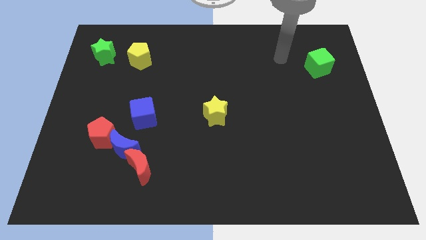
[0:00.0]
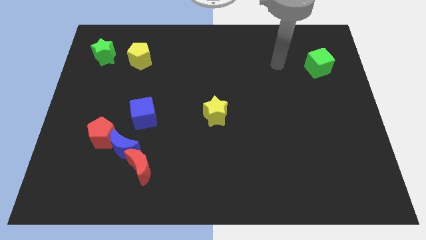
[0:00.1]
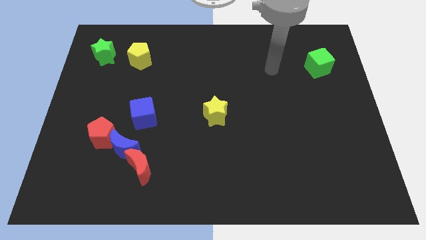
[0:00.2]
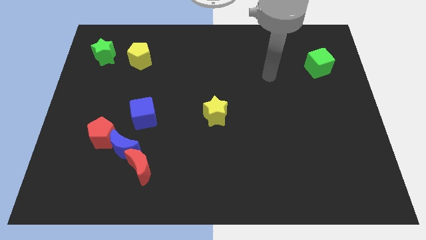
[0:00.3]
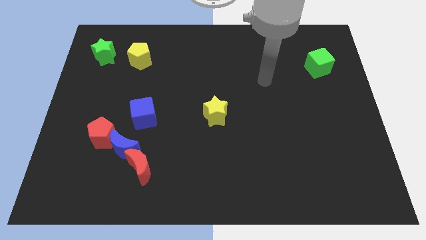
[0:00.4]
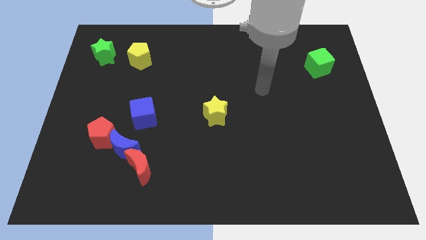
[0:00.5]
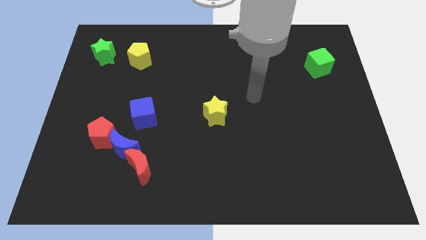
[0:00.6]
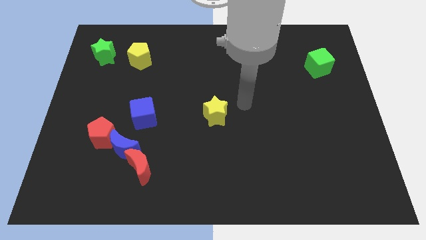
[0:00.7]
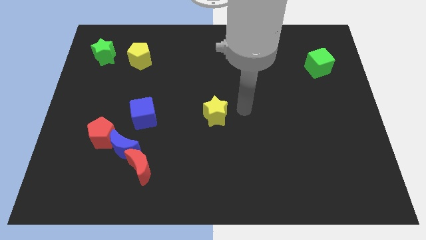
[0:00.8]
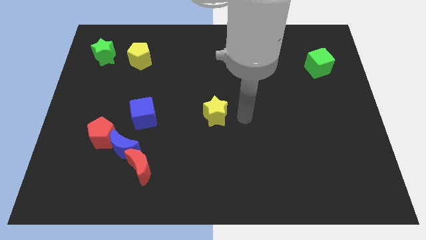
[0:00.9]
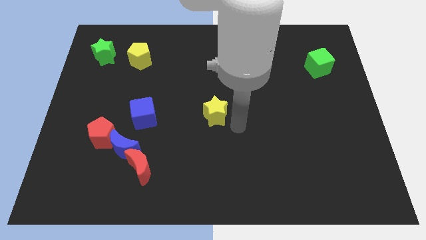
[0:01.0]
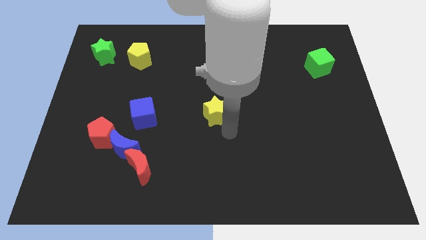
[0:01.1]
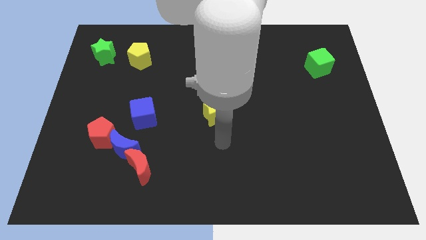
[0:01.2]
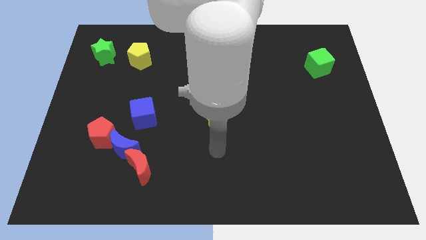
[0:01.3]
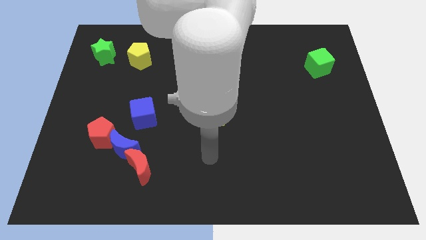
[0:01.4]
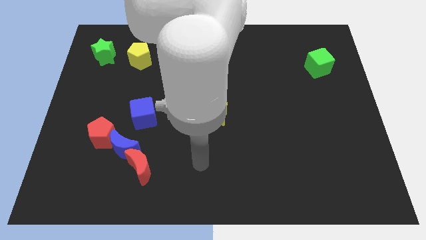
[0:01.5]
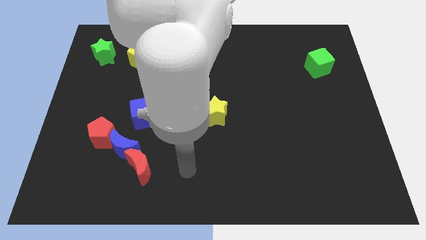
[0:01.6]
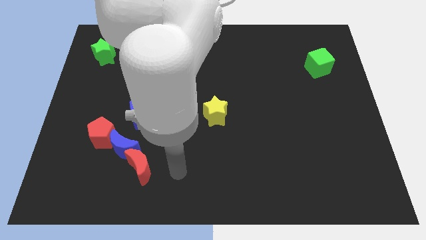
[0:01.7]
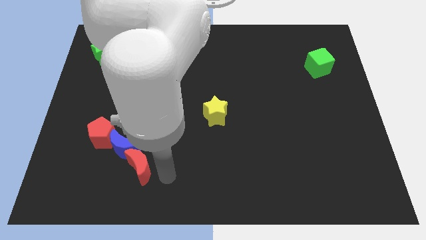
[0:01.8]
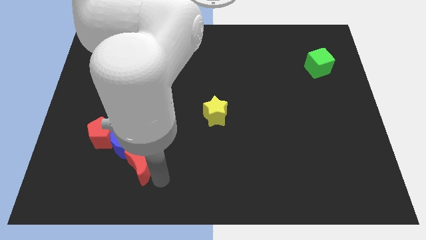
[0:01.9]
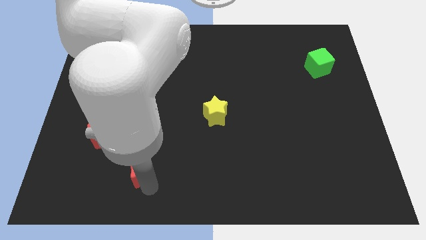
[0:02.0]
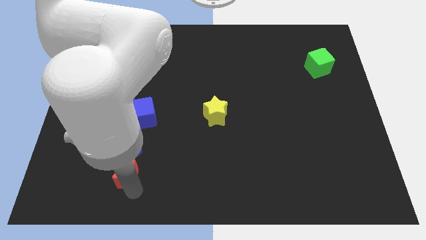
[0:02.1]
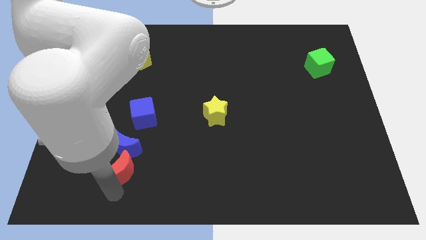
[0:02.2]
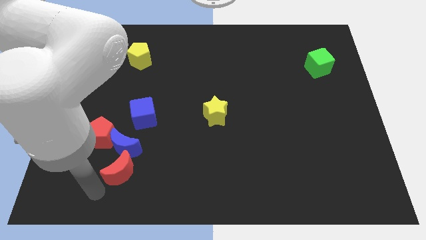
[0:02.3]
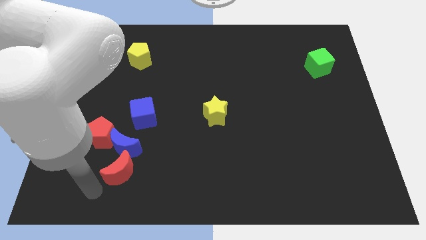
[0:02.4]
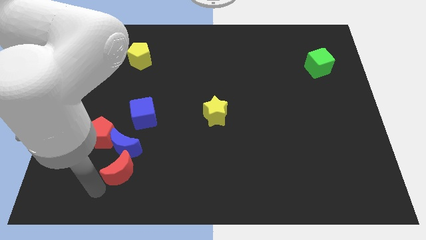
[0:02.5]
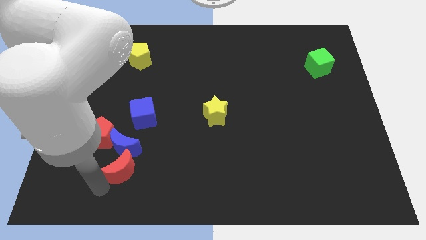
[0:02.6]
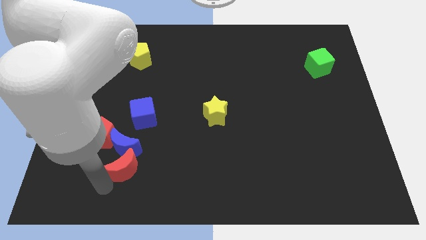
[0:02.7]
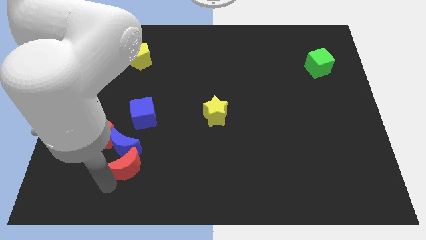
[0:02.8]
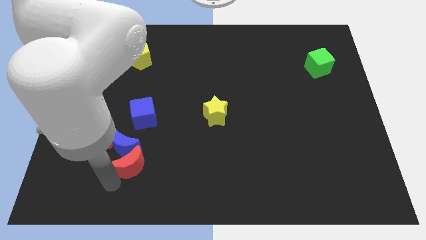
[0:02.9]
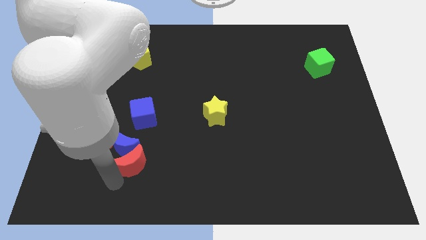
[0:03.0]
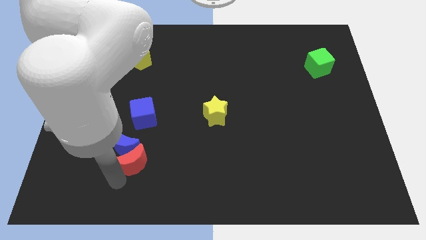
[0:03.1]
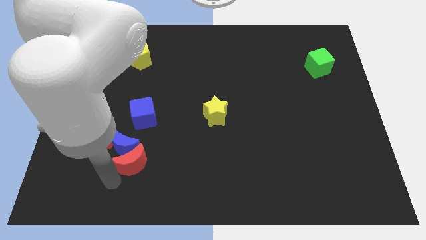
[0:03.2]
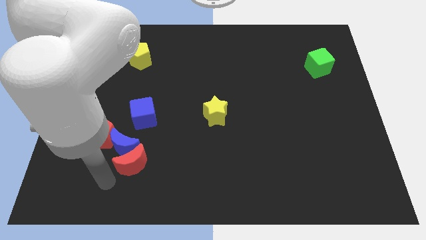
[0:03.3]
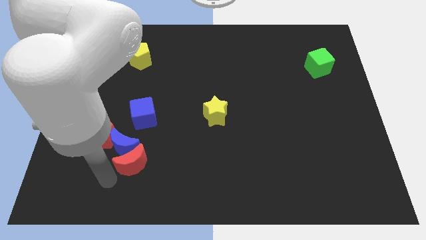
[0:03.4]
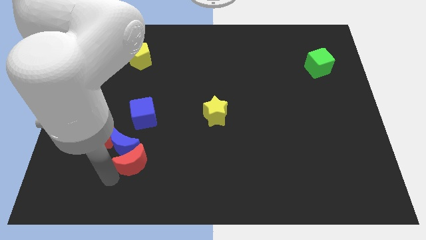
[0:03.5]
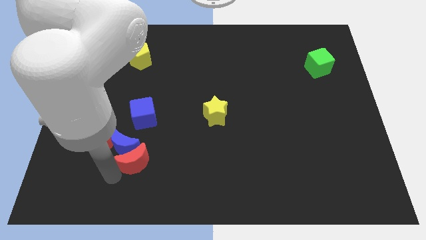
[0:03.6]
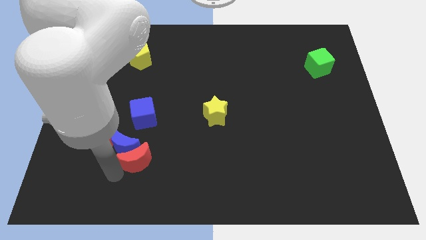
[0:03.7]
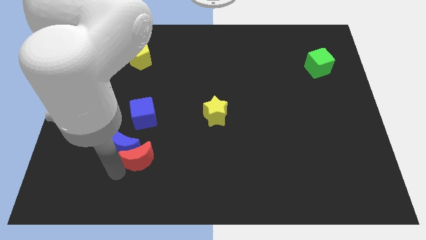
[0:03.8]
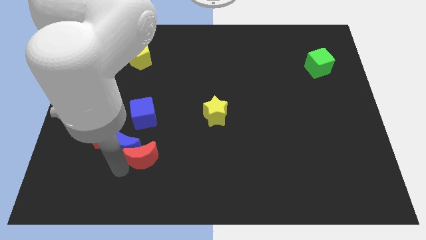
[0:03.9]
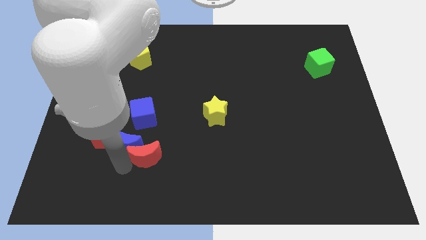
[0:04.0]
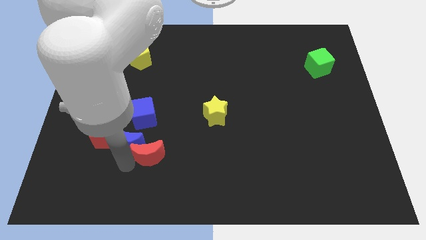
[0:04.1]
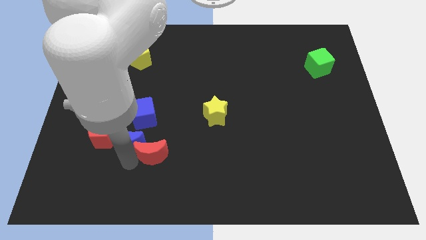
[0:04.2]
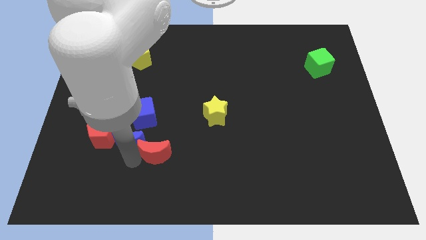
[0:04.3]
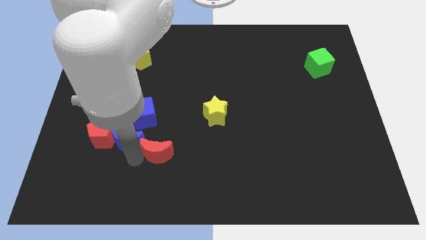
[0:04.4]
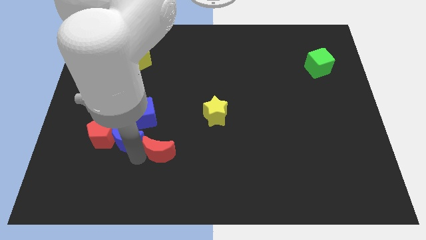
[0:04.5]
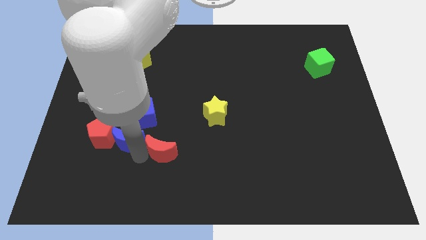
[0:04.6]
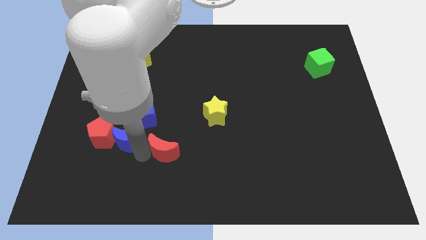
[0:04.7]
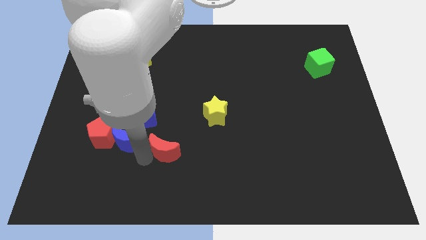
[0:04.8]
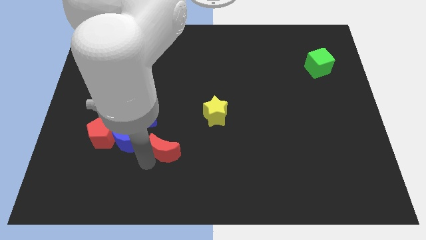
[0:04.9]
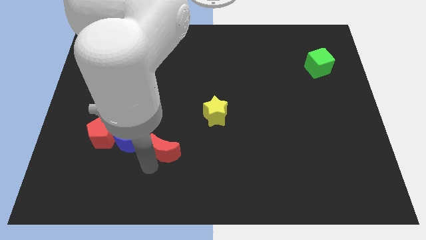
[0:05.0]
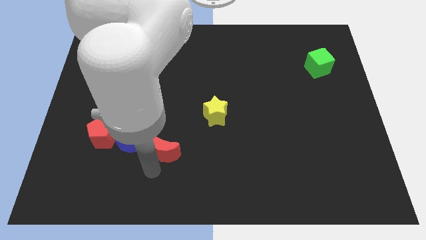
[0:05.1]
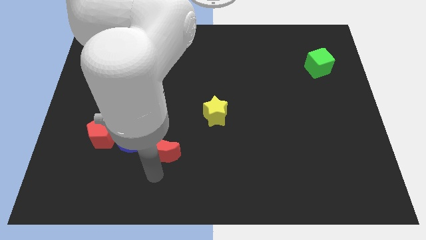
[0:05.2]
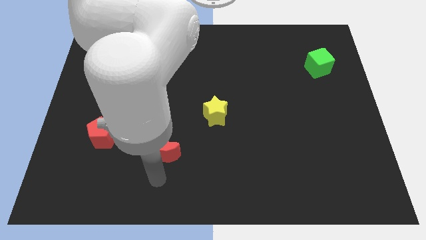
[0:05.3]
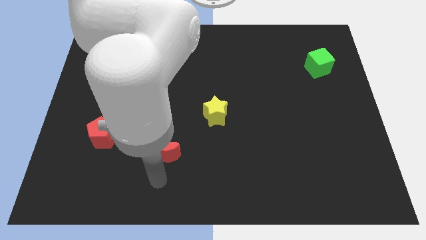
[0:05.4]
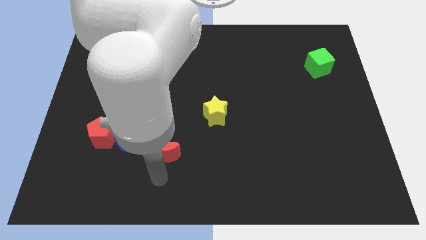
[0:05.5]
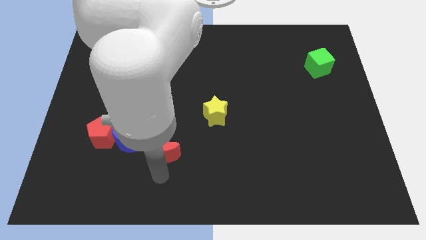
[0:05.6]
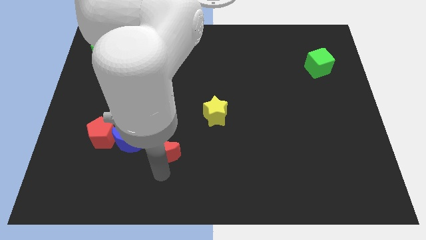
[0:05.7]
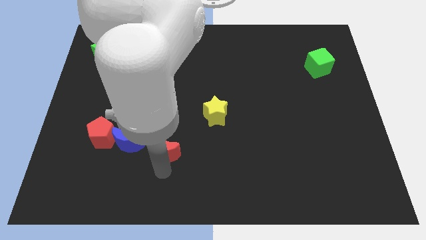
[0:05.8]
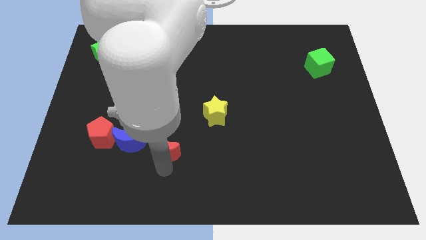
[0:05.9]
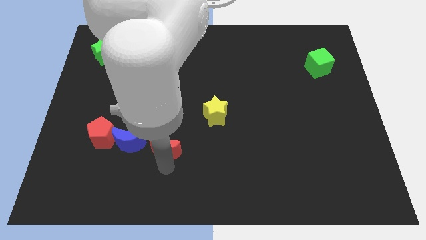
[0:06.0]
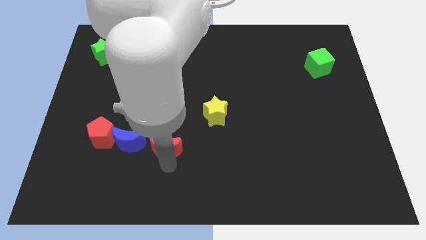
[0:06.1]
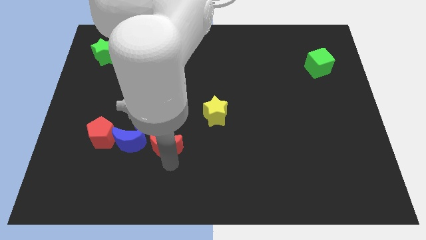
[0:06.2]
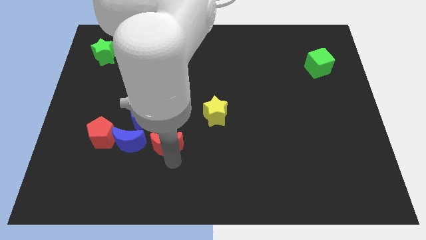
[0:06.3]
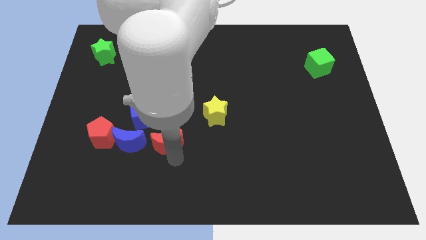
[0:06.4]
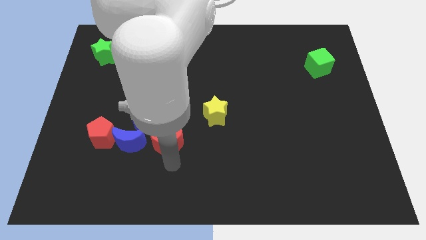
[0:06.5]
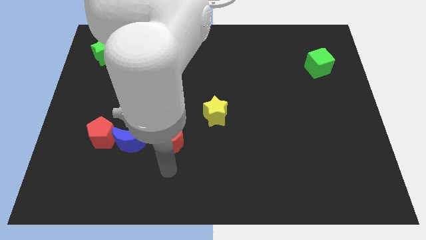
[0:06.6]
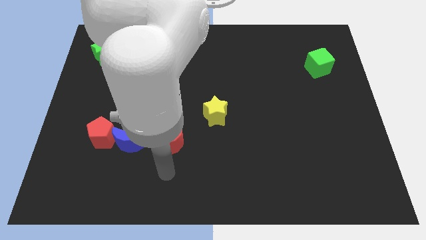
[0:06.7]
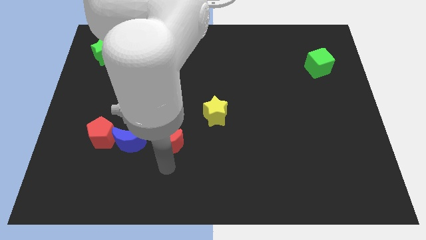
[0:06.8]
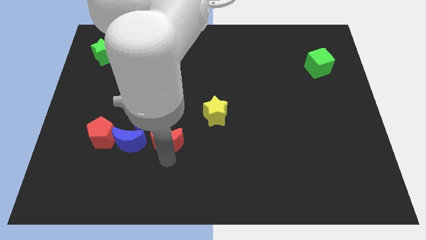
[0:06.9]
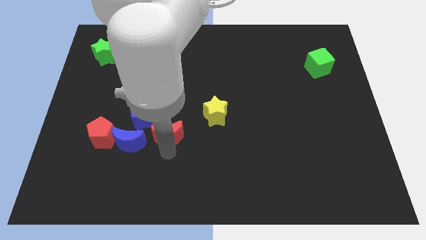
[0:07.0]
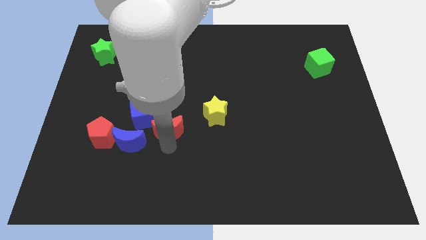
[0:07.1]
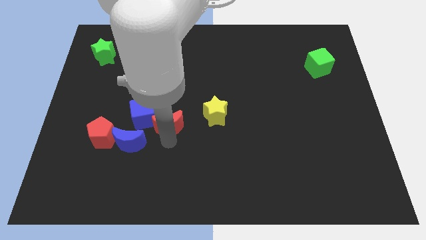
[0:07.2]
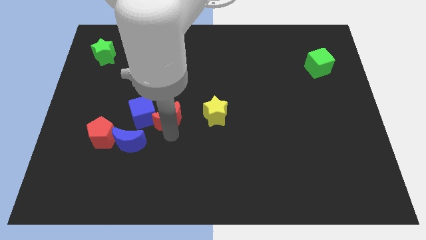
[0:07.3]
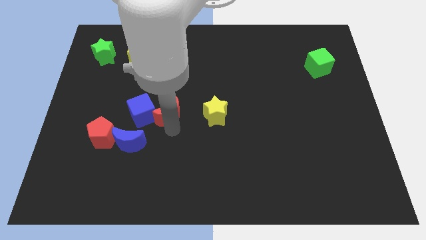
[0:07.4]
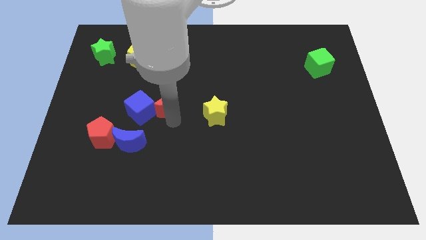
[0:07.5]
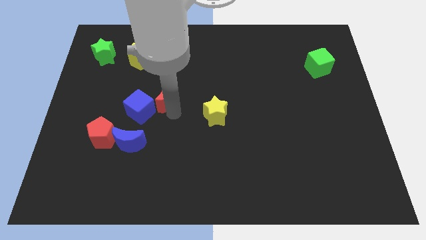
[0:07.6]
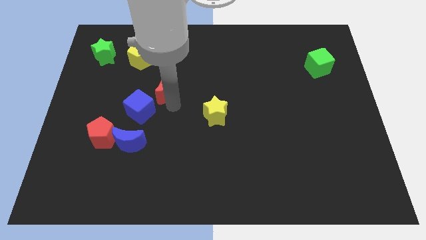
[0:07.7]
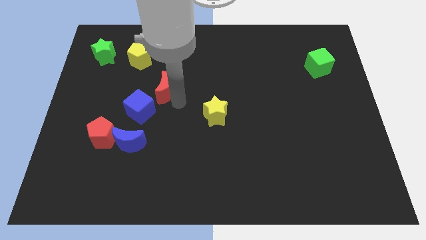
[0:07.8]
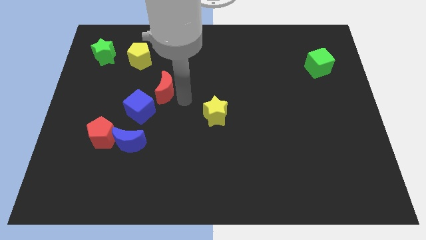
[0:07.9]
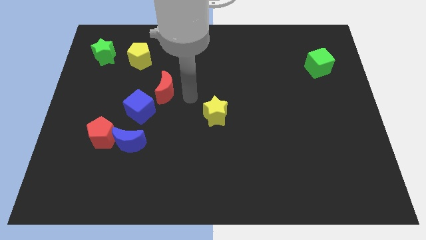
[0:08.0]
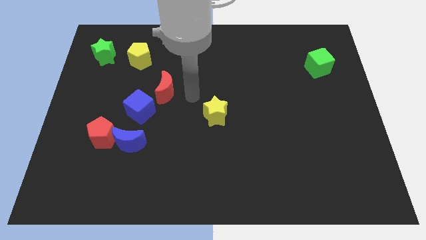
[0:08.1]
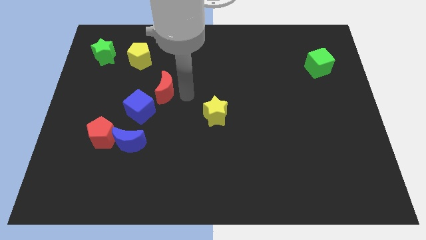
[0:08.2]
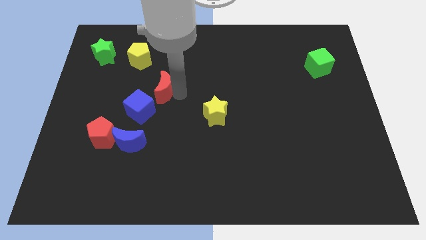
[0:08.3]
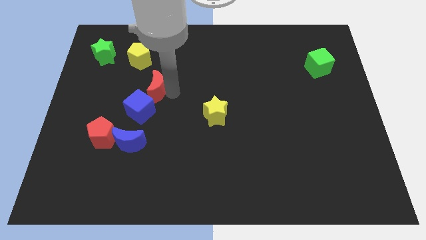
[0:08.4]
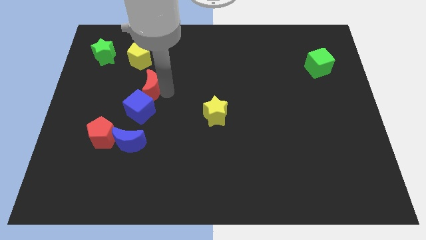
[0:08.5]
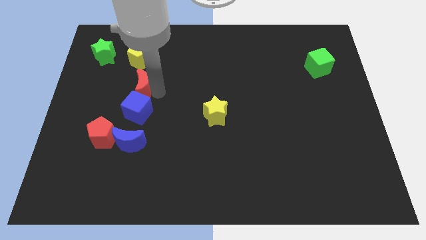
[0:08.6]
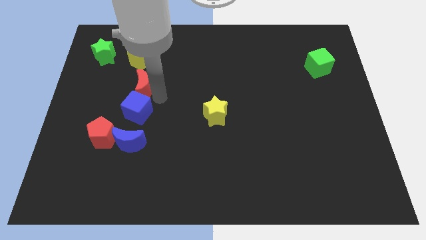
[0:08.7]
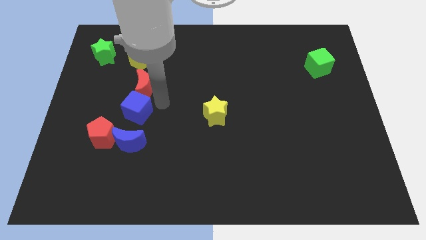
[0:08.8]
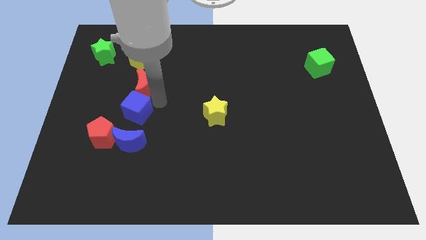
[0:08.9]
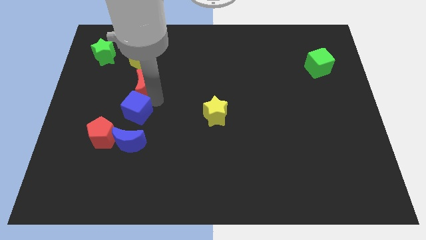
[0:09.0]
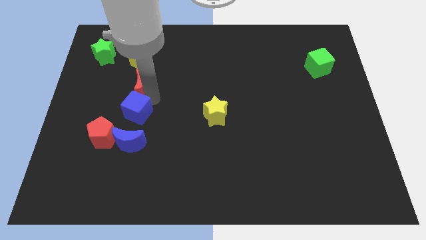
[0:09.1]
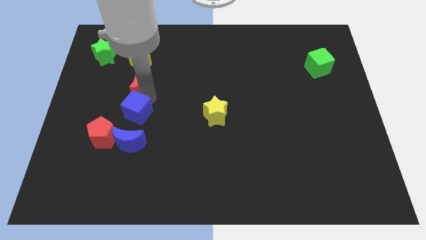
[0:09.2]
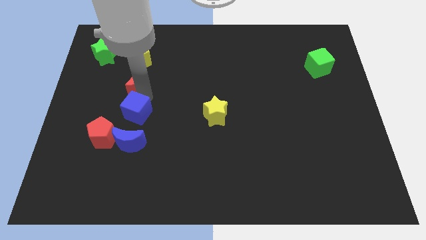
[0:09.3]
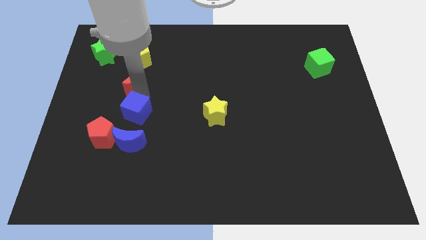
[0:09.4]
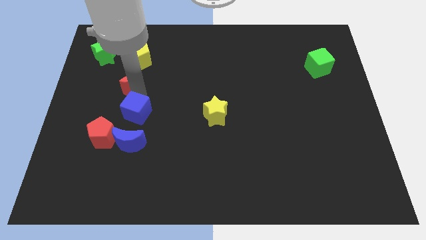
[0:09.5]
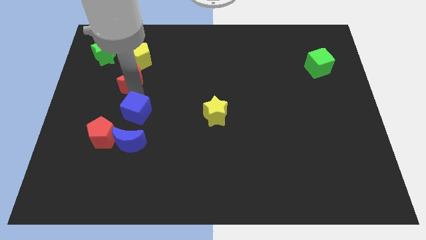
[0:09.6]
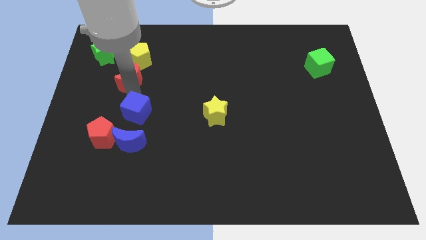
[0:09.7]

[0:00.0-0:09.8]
move the red moon diagonally down and to the right of the green star
